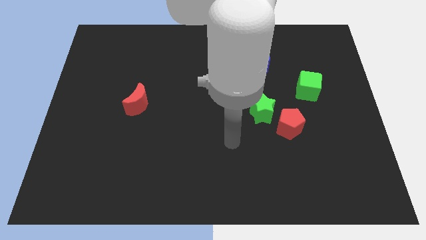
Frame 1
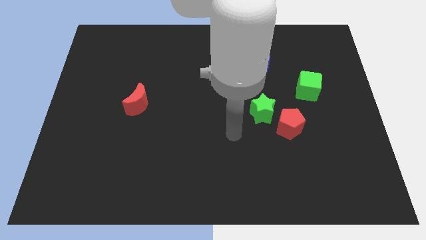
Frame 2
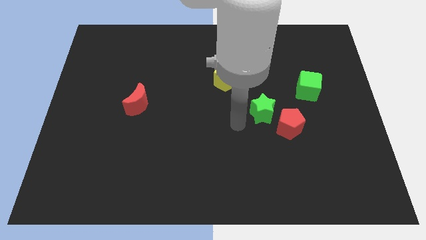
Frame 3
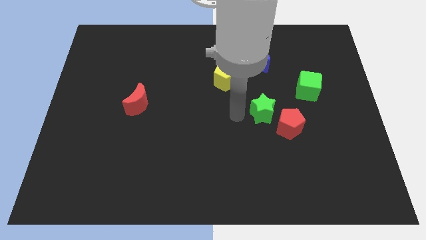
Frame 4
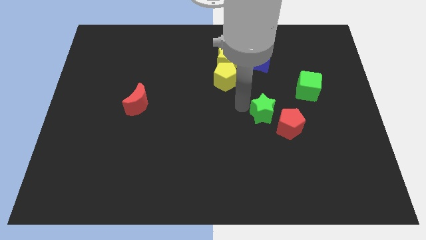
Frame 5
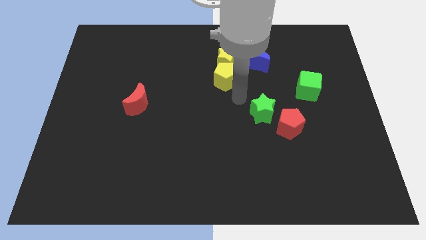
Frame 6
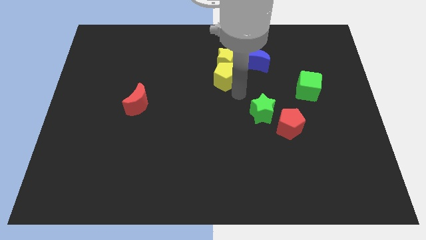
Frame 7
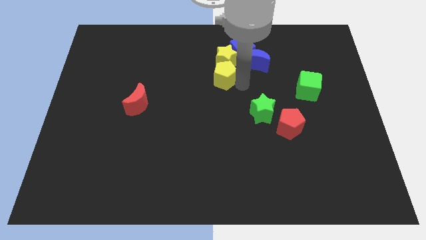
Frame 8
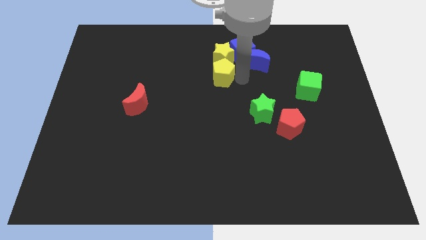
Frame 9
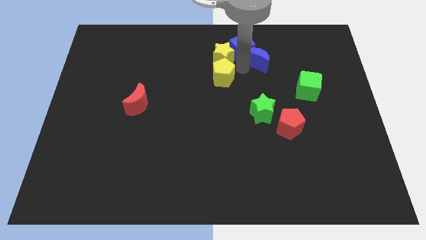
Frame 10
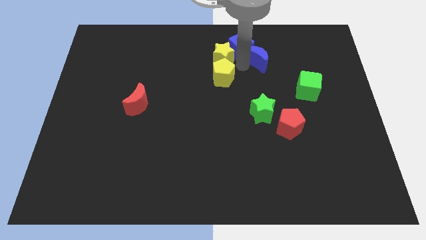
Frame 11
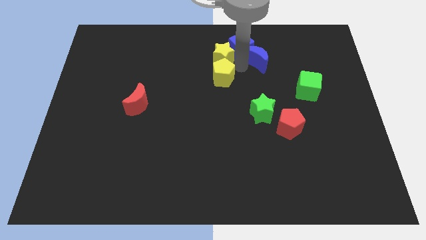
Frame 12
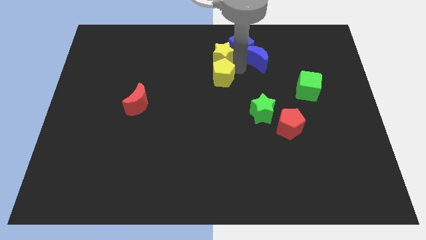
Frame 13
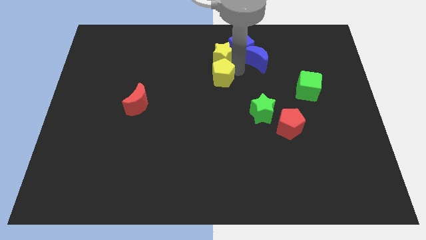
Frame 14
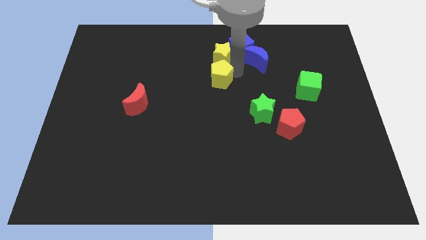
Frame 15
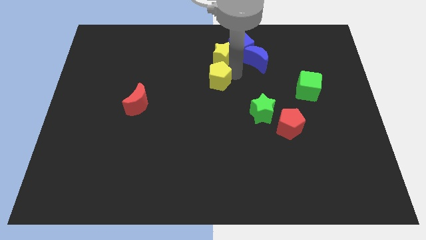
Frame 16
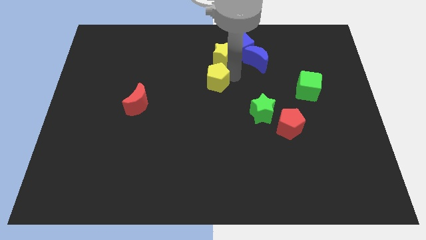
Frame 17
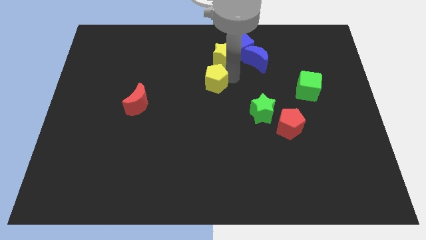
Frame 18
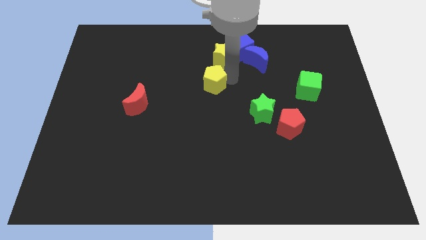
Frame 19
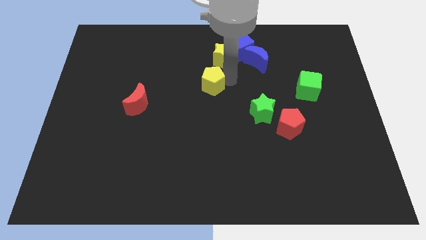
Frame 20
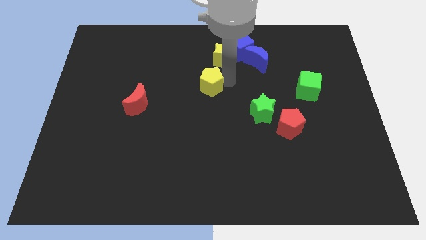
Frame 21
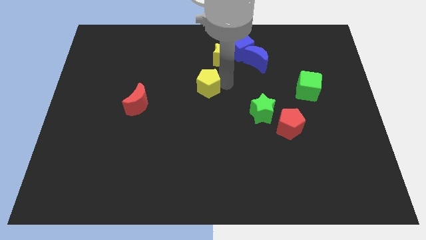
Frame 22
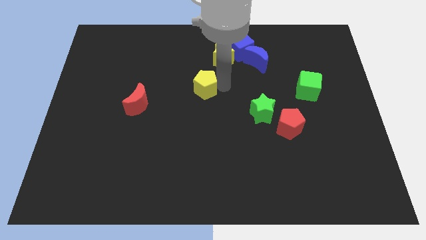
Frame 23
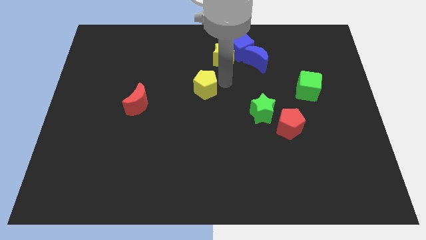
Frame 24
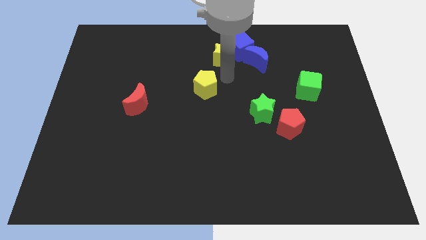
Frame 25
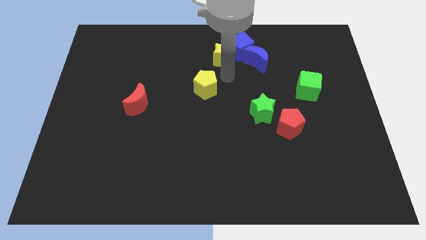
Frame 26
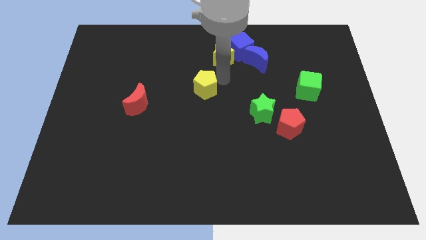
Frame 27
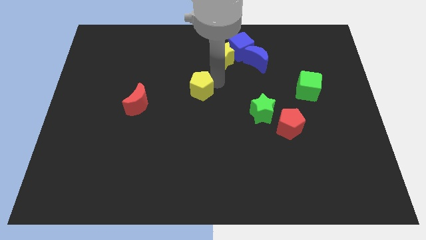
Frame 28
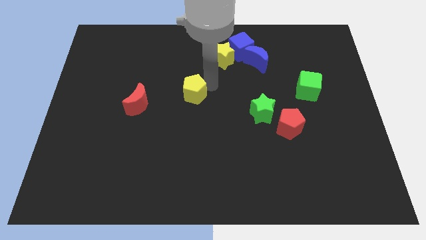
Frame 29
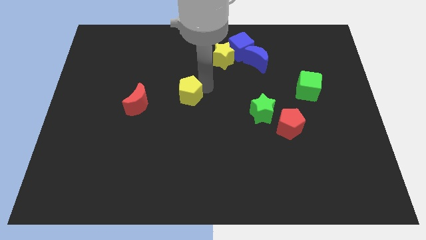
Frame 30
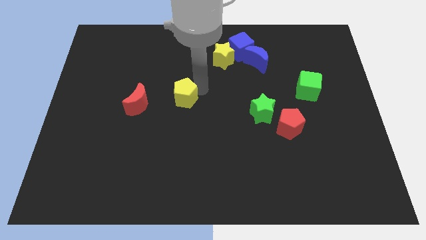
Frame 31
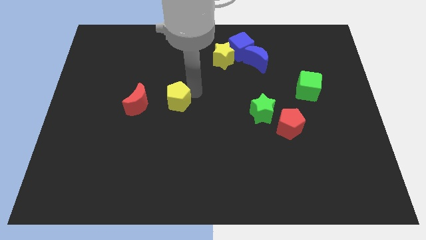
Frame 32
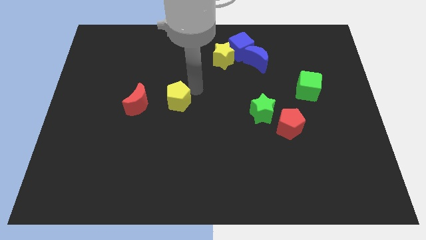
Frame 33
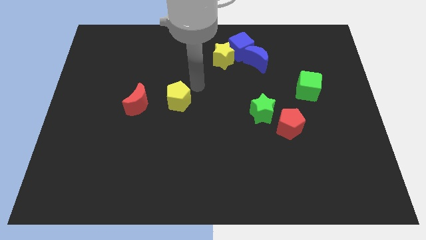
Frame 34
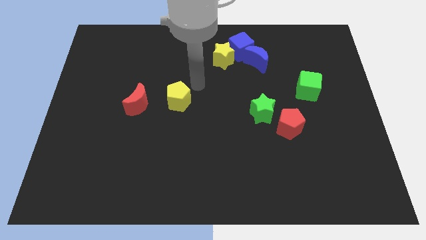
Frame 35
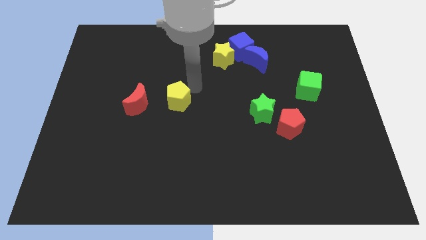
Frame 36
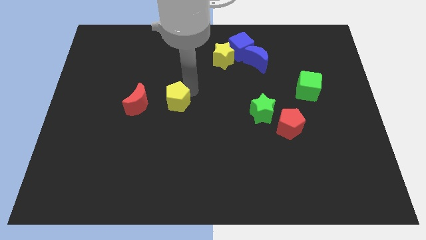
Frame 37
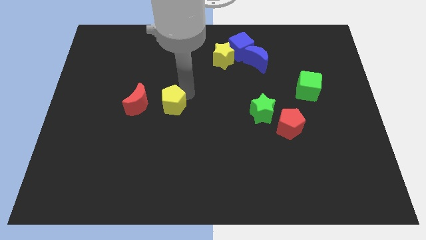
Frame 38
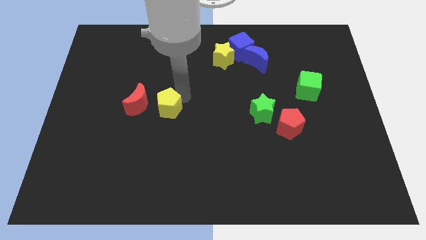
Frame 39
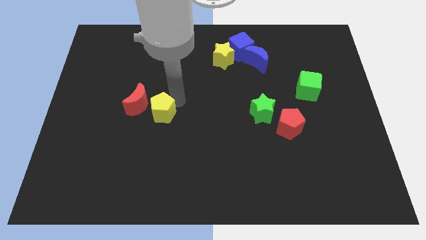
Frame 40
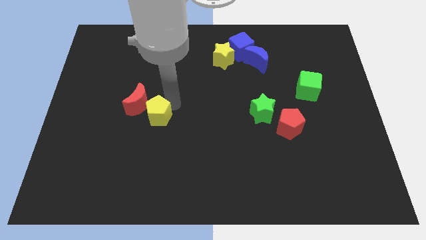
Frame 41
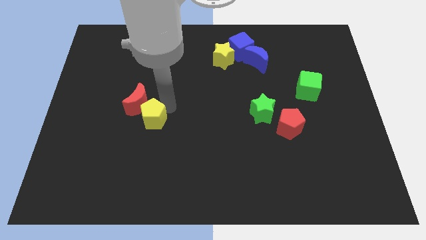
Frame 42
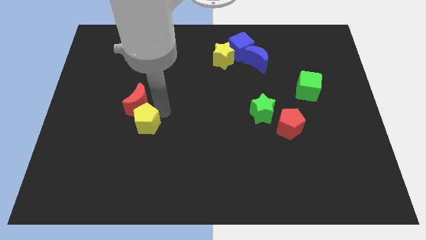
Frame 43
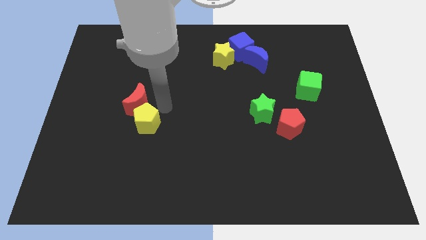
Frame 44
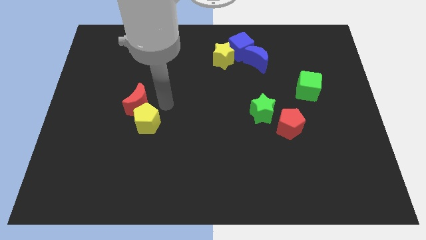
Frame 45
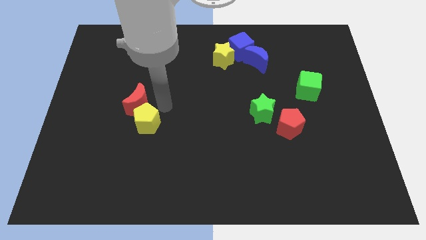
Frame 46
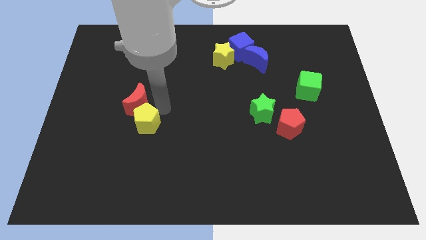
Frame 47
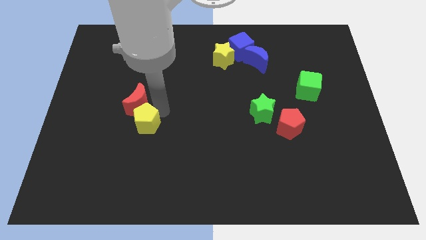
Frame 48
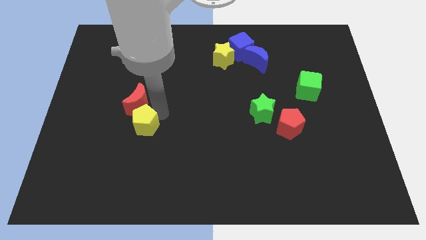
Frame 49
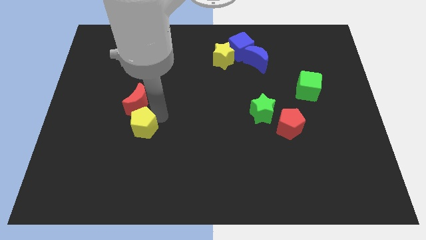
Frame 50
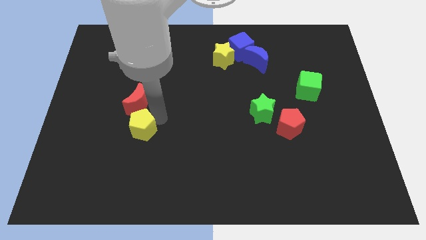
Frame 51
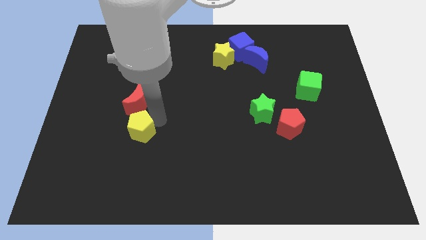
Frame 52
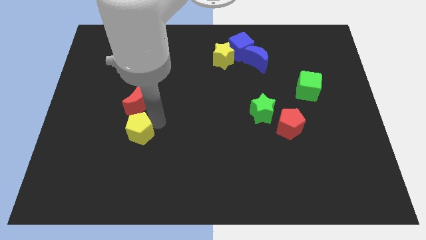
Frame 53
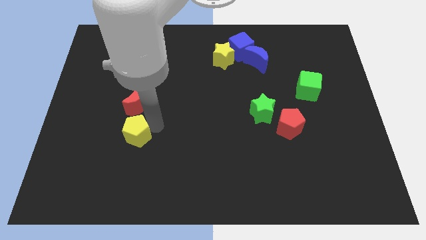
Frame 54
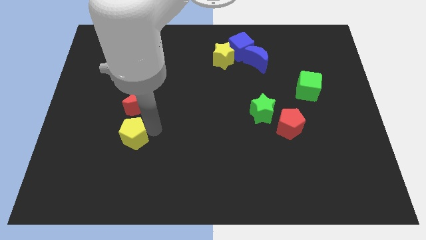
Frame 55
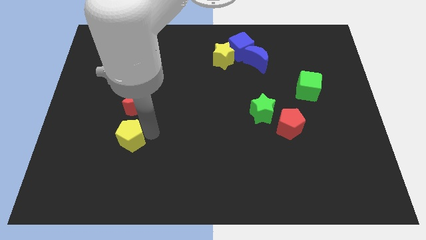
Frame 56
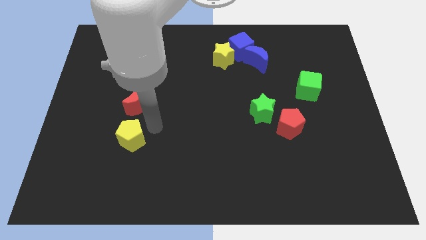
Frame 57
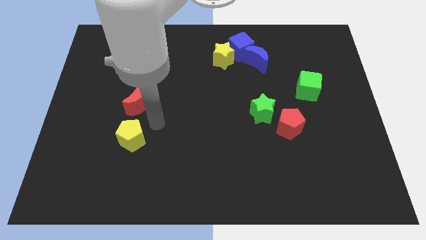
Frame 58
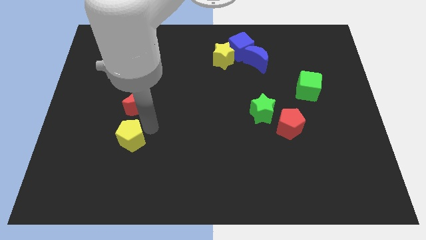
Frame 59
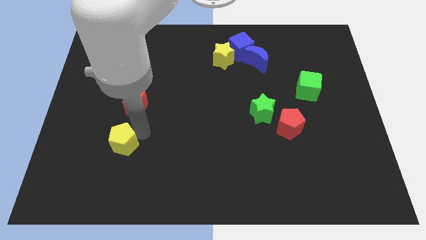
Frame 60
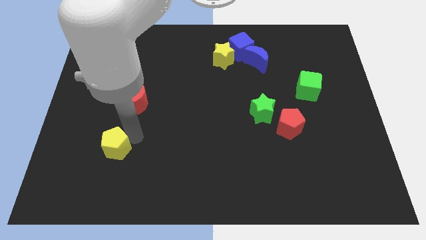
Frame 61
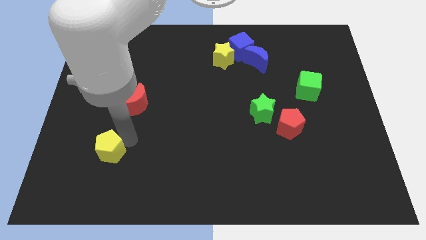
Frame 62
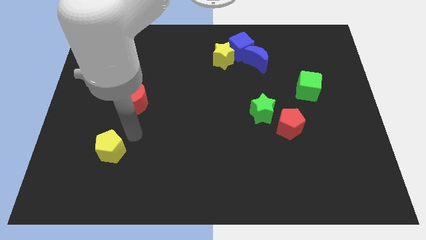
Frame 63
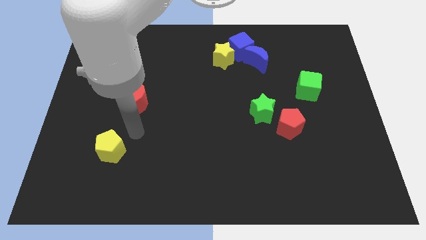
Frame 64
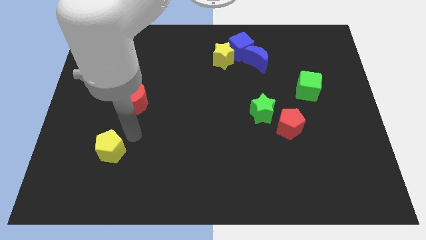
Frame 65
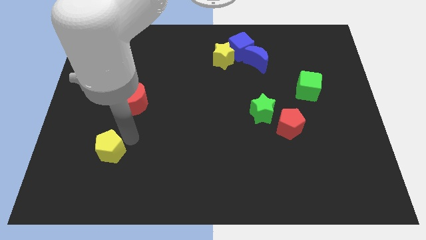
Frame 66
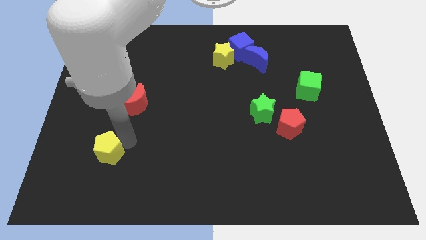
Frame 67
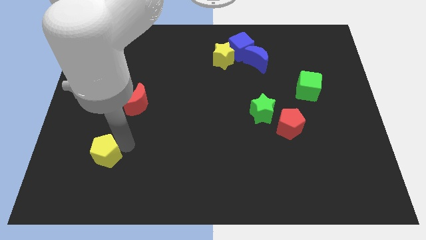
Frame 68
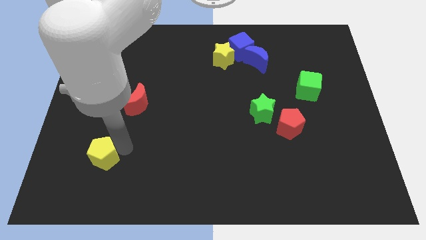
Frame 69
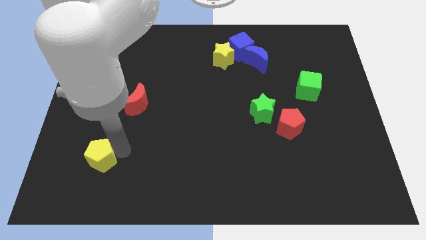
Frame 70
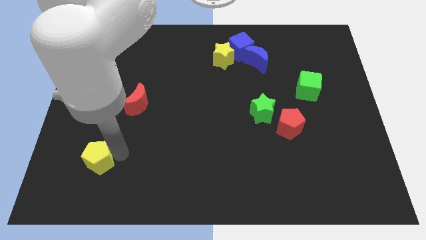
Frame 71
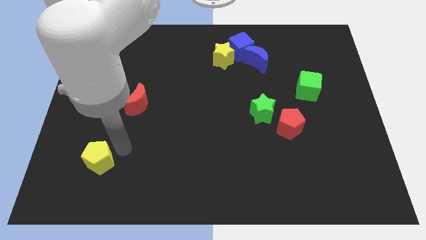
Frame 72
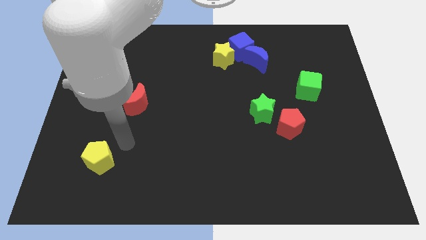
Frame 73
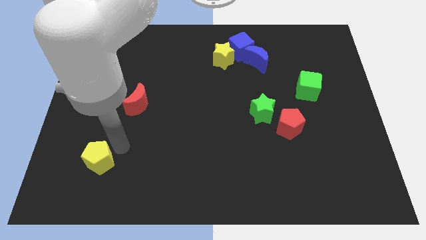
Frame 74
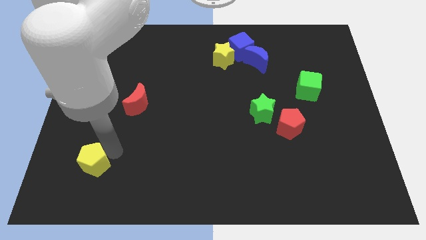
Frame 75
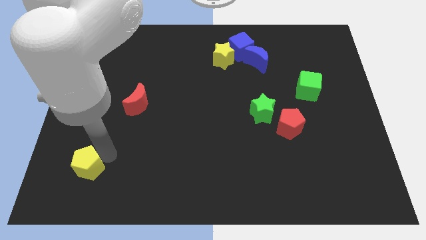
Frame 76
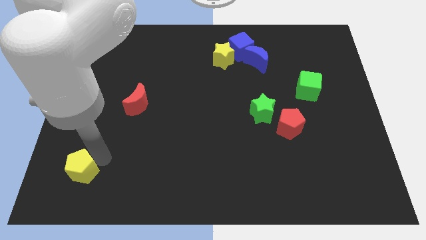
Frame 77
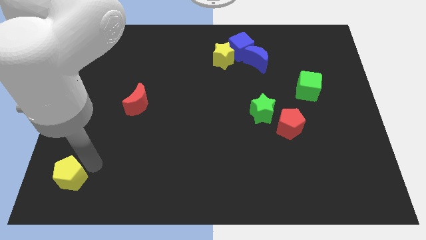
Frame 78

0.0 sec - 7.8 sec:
slide the yellow pentagon to the bottom left of the board
